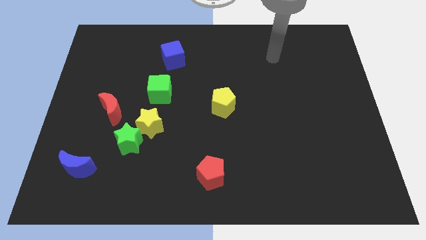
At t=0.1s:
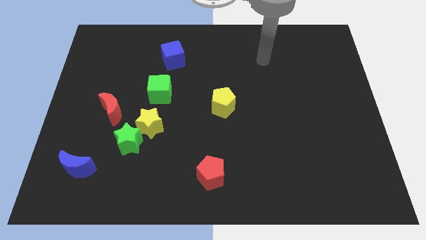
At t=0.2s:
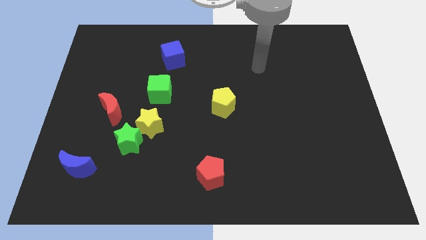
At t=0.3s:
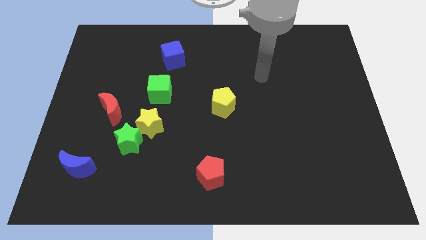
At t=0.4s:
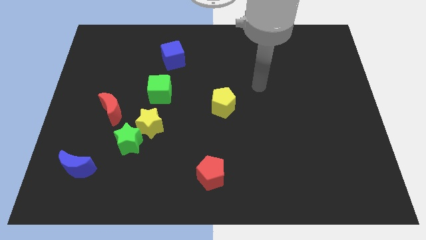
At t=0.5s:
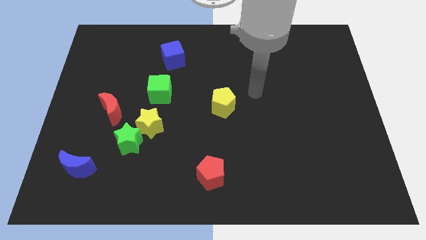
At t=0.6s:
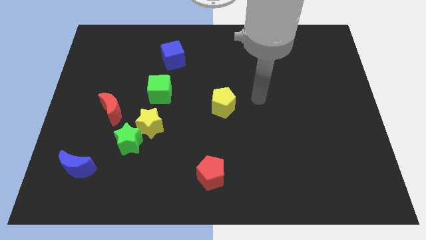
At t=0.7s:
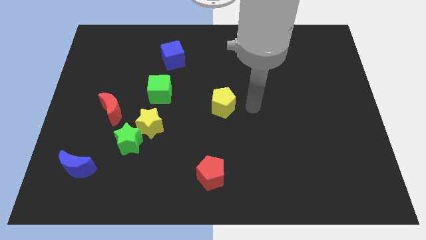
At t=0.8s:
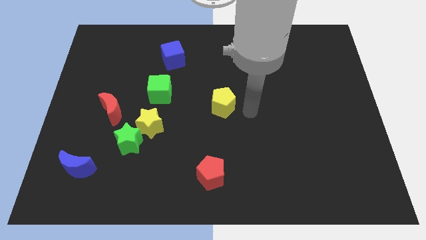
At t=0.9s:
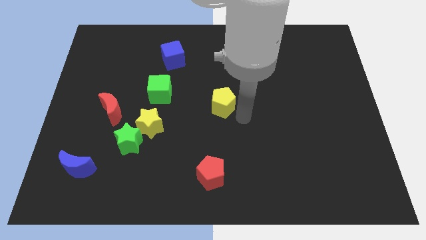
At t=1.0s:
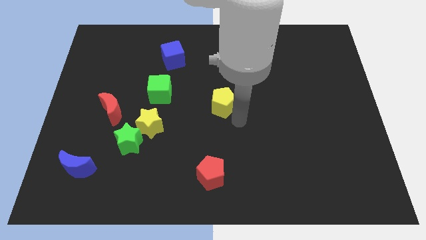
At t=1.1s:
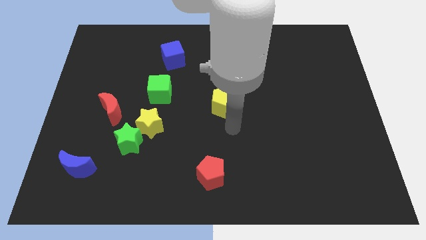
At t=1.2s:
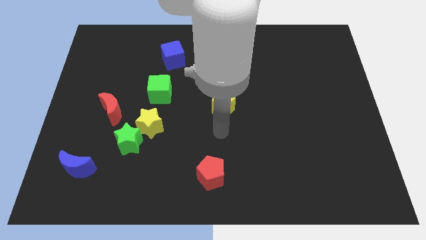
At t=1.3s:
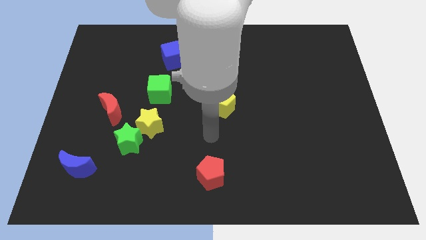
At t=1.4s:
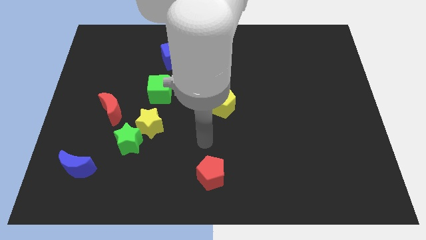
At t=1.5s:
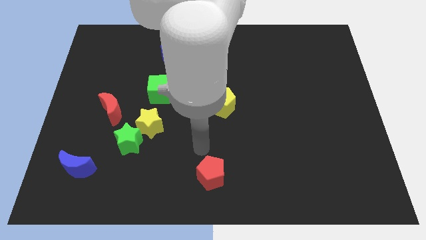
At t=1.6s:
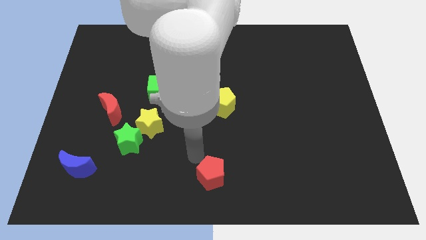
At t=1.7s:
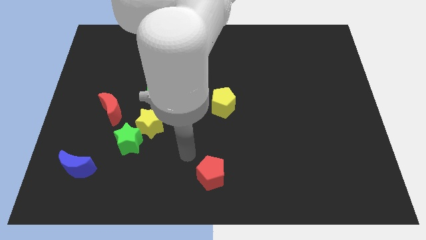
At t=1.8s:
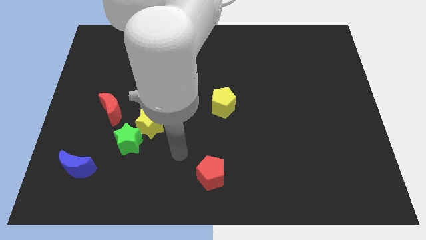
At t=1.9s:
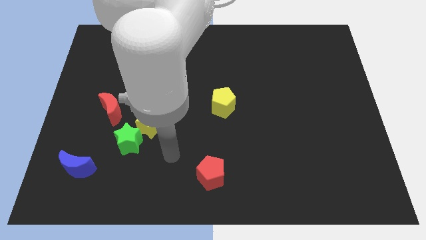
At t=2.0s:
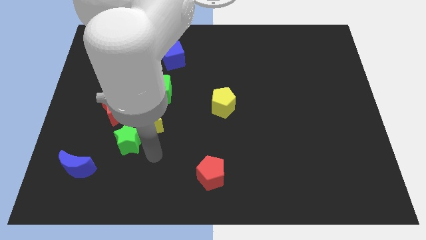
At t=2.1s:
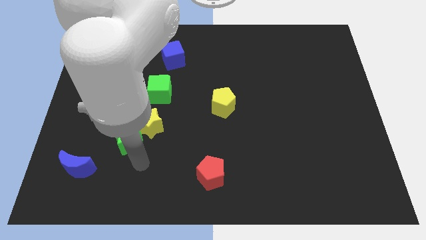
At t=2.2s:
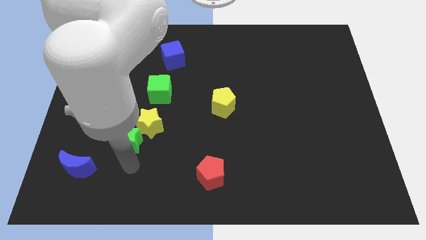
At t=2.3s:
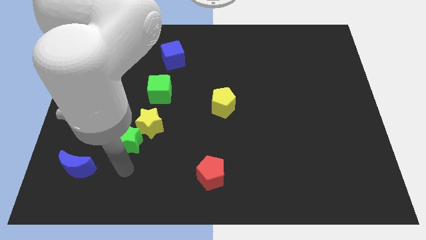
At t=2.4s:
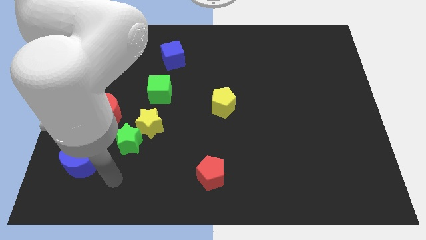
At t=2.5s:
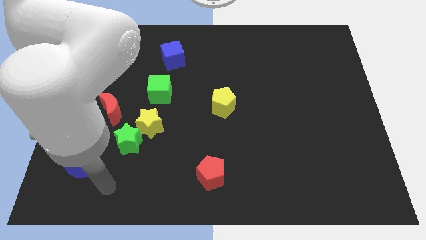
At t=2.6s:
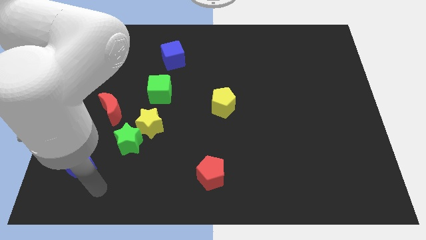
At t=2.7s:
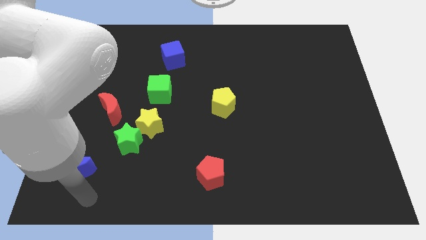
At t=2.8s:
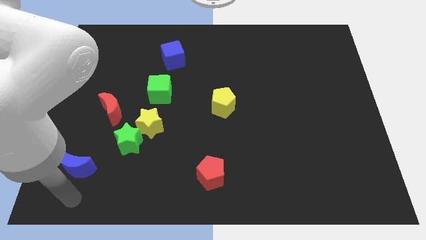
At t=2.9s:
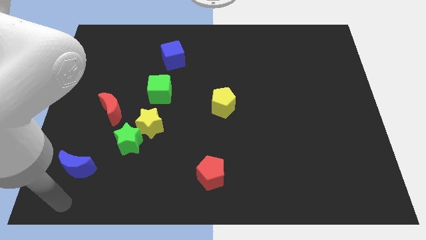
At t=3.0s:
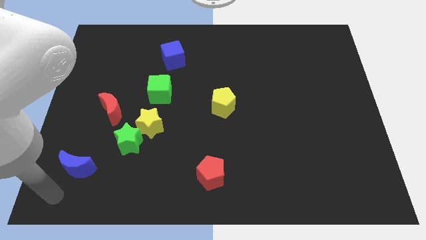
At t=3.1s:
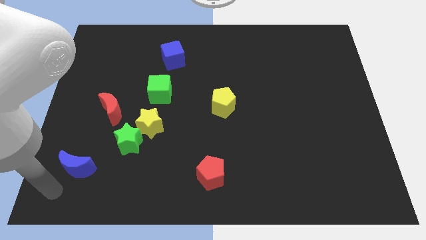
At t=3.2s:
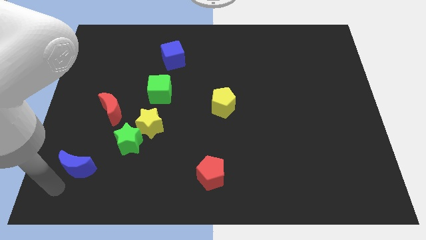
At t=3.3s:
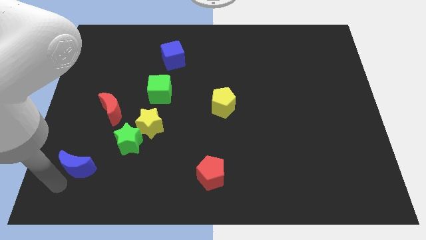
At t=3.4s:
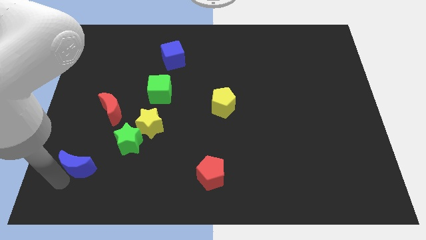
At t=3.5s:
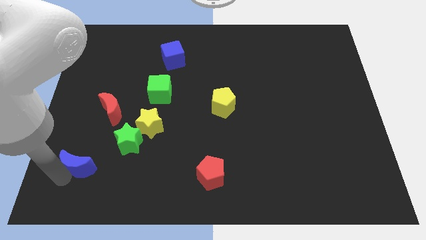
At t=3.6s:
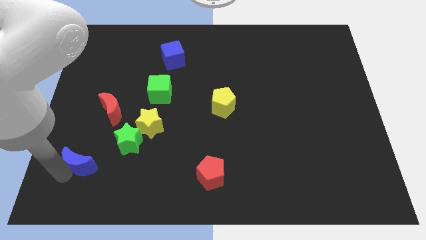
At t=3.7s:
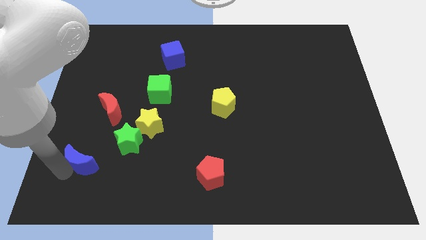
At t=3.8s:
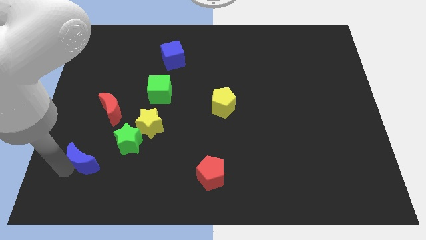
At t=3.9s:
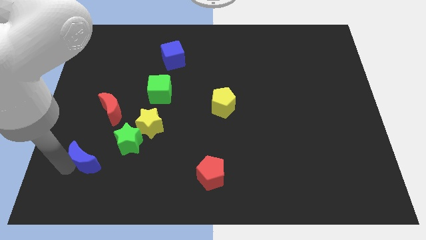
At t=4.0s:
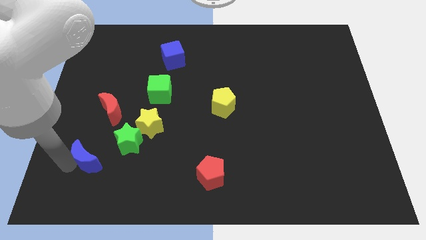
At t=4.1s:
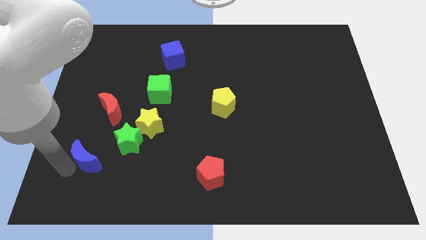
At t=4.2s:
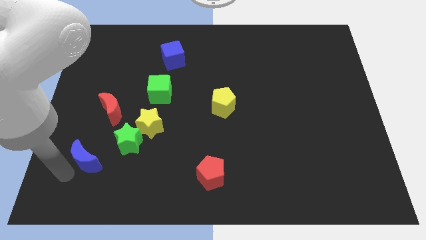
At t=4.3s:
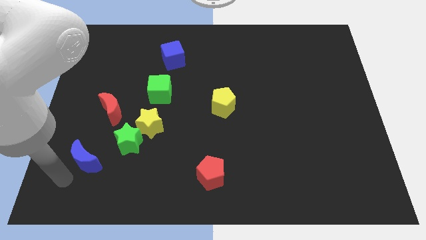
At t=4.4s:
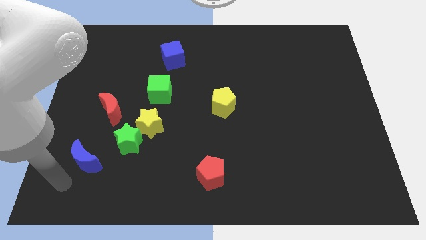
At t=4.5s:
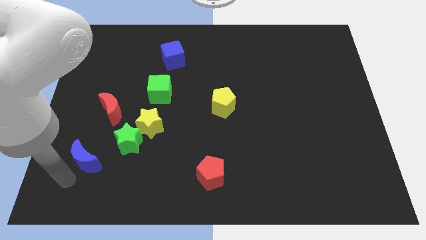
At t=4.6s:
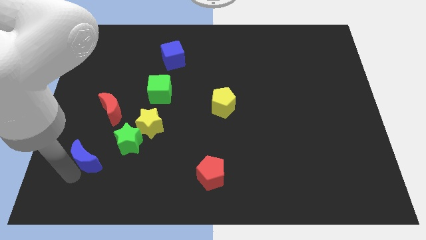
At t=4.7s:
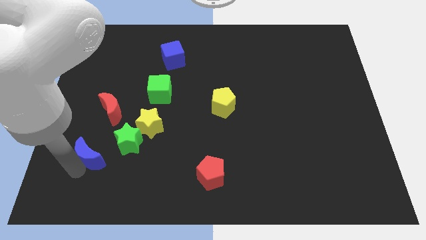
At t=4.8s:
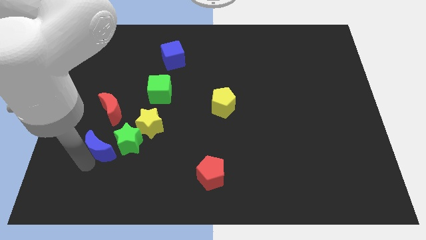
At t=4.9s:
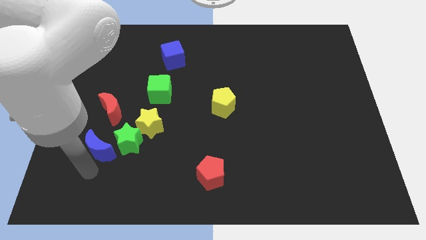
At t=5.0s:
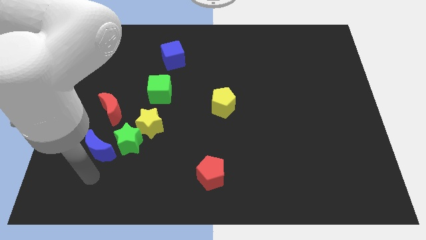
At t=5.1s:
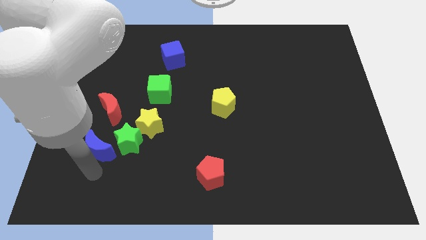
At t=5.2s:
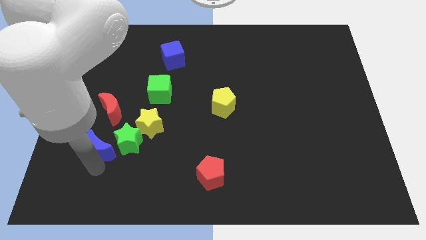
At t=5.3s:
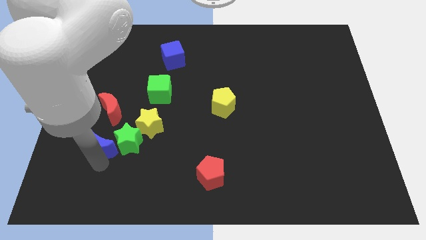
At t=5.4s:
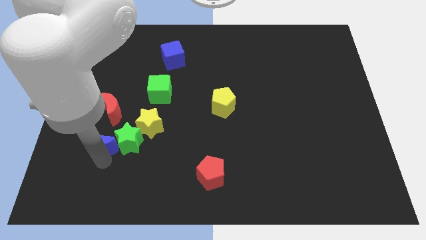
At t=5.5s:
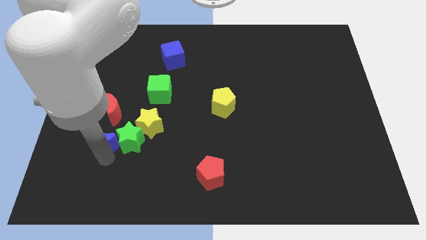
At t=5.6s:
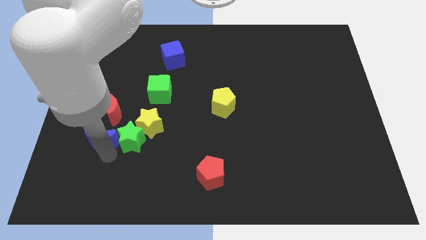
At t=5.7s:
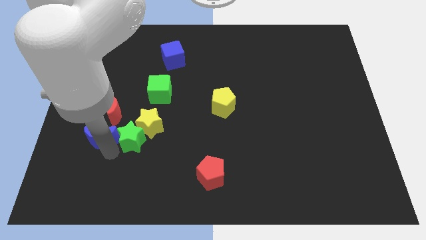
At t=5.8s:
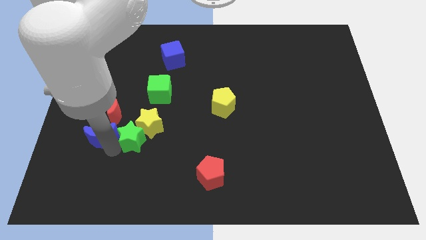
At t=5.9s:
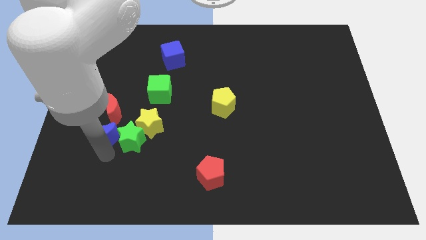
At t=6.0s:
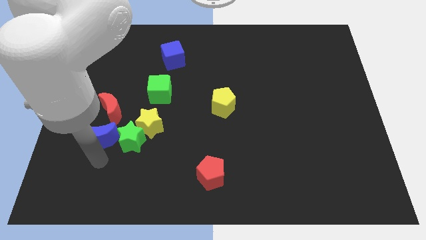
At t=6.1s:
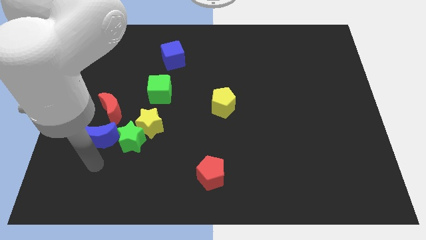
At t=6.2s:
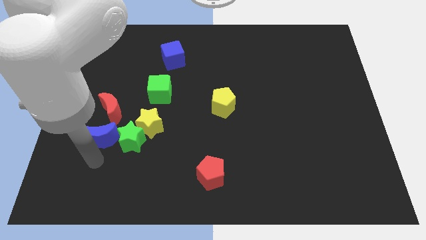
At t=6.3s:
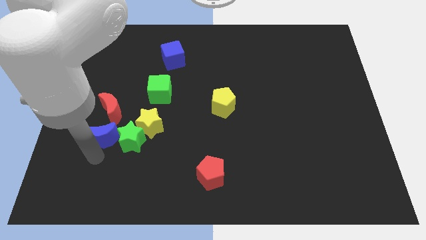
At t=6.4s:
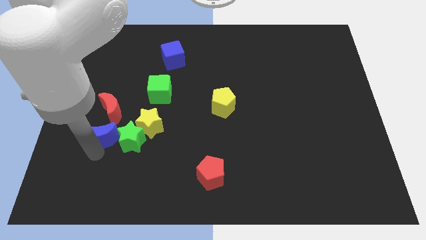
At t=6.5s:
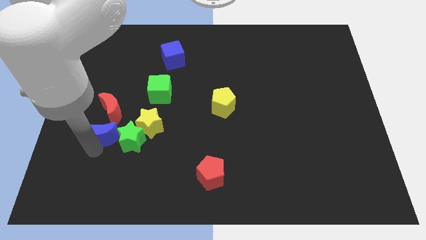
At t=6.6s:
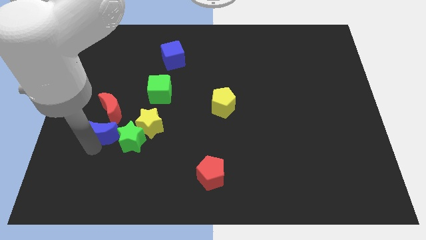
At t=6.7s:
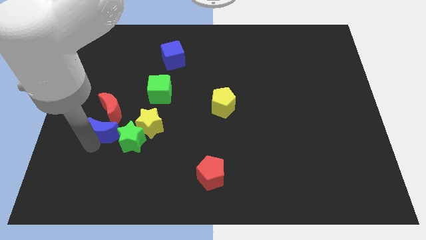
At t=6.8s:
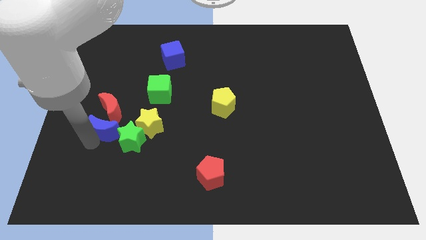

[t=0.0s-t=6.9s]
move the blue moon towards the red moon

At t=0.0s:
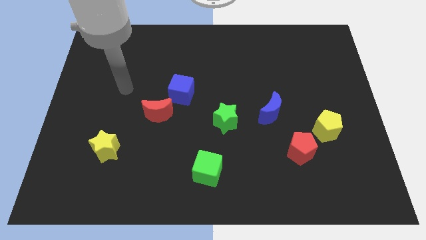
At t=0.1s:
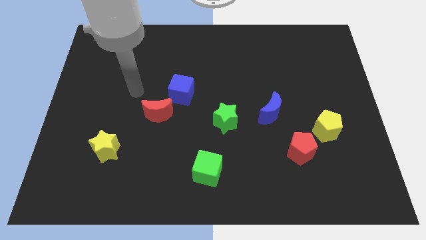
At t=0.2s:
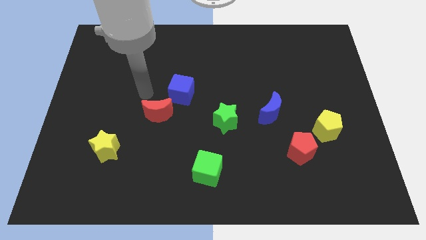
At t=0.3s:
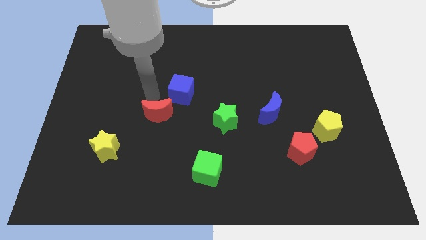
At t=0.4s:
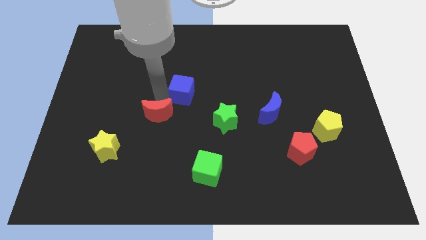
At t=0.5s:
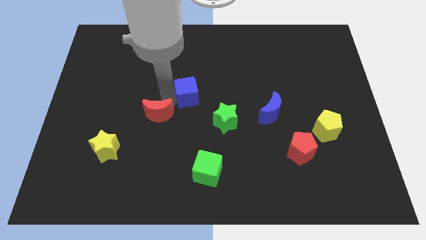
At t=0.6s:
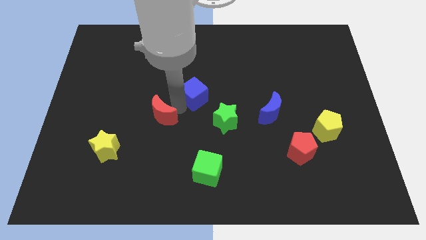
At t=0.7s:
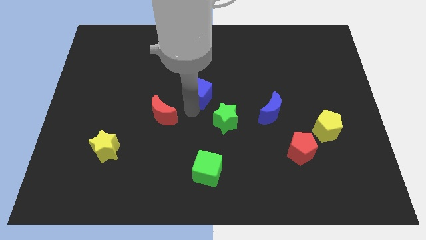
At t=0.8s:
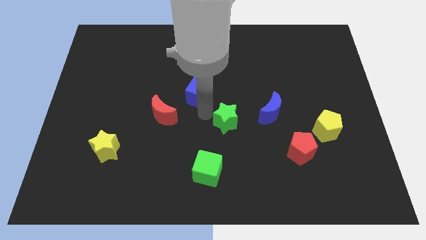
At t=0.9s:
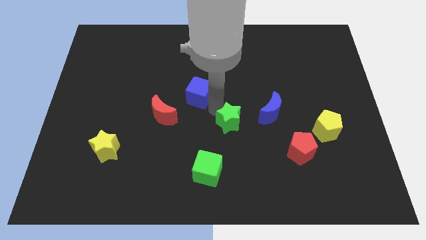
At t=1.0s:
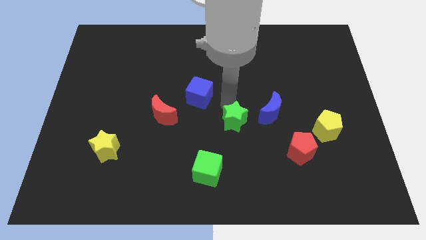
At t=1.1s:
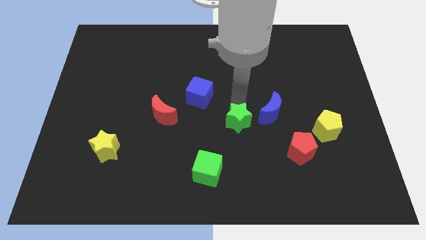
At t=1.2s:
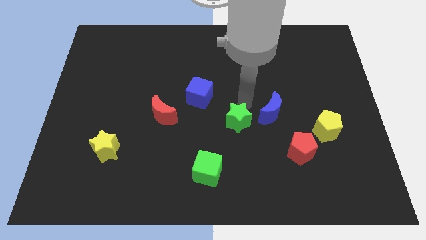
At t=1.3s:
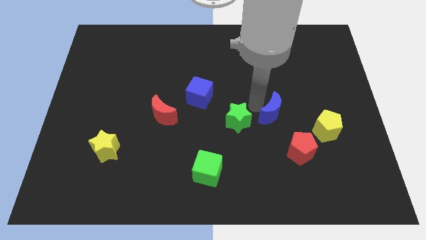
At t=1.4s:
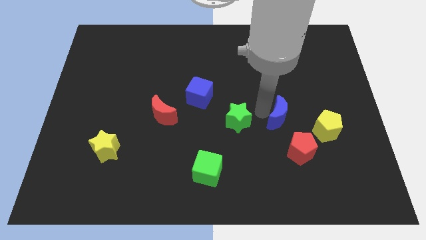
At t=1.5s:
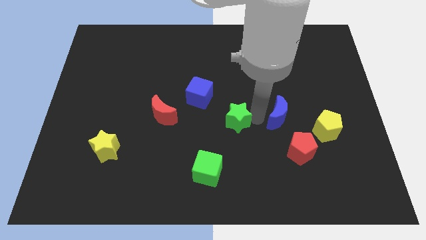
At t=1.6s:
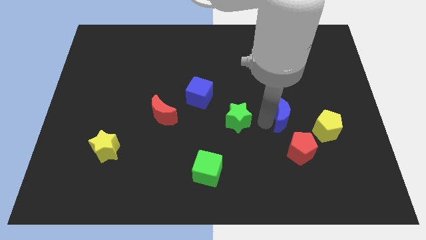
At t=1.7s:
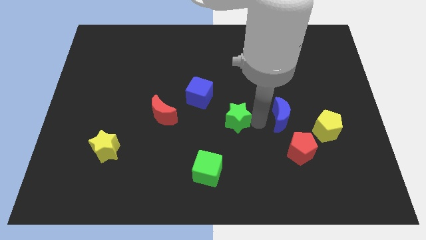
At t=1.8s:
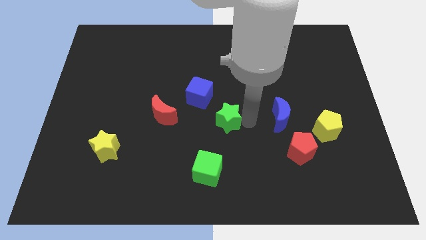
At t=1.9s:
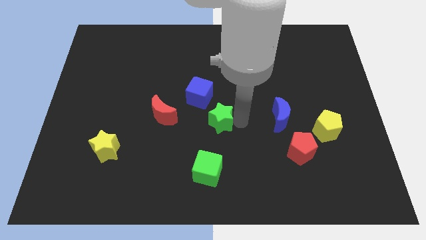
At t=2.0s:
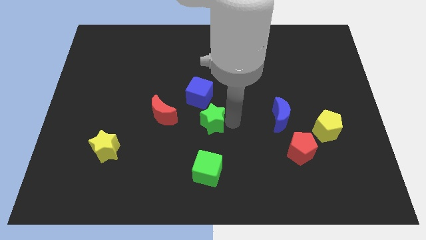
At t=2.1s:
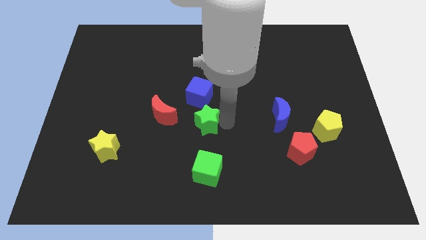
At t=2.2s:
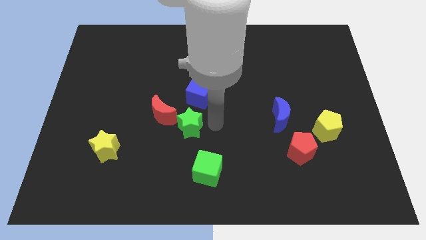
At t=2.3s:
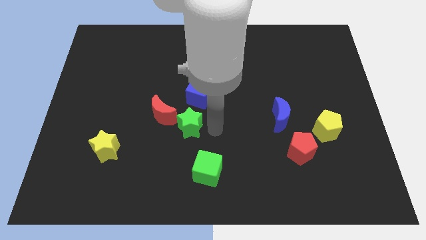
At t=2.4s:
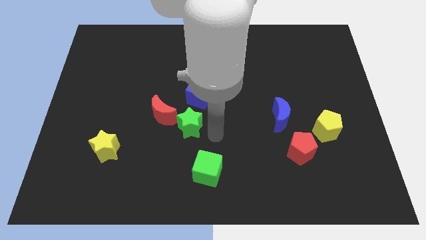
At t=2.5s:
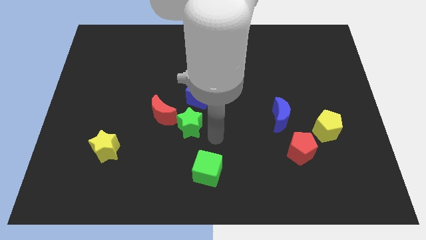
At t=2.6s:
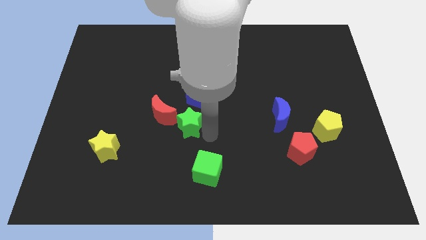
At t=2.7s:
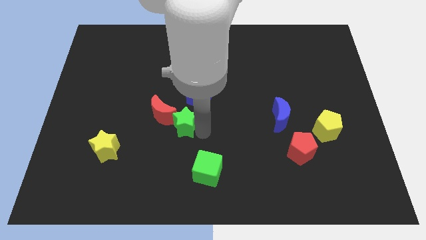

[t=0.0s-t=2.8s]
slide the green star next to the red moon
